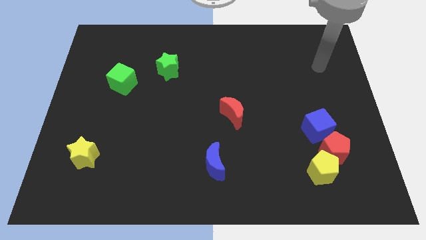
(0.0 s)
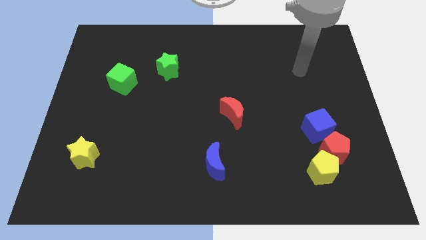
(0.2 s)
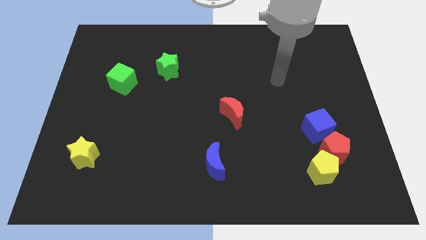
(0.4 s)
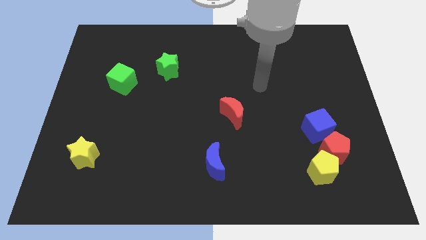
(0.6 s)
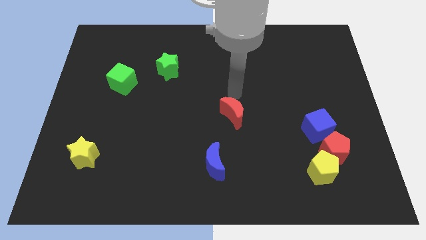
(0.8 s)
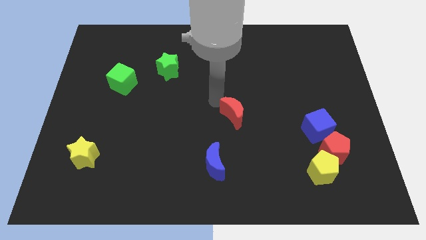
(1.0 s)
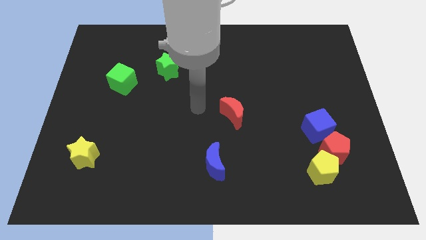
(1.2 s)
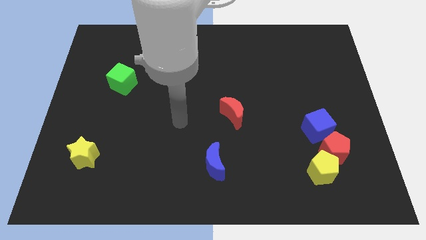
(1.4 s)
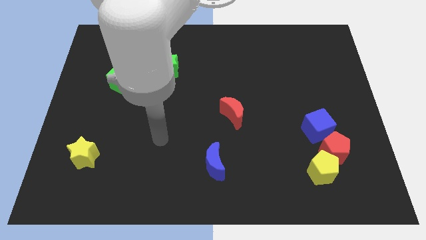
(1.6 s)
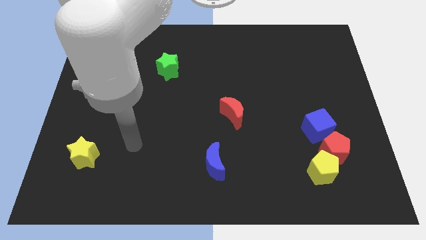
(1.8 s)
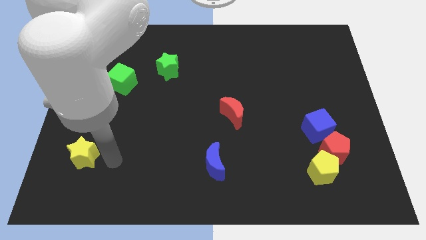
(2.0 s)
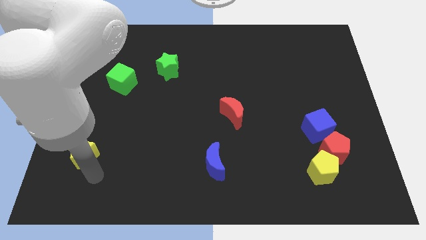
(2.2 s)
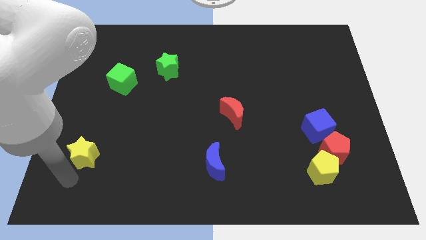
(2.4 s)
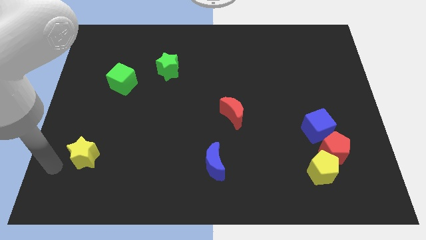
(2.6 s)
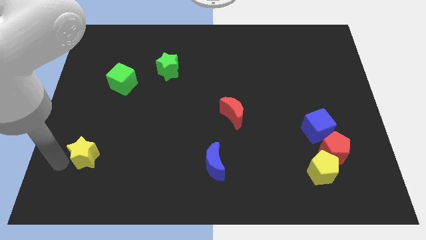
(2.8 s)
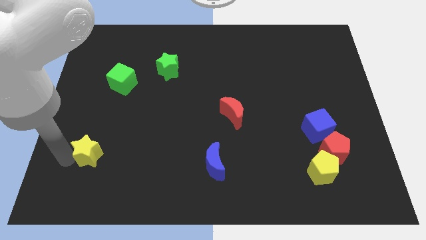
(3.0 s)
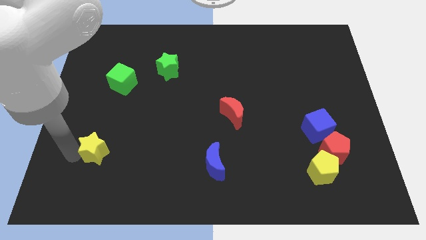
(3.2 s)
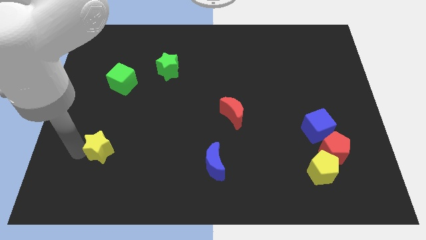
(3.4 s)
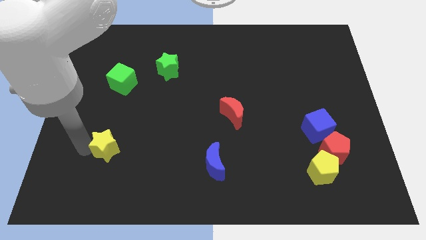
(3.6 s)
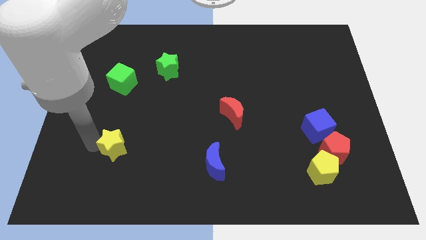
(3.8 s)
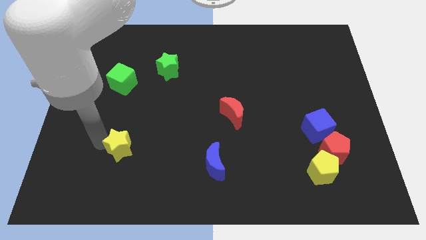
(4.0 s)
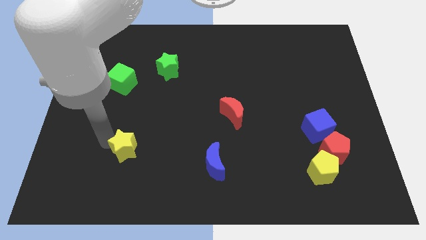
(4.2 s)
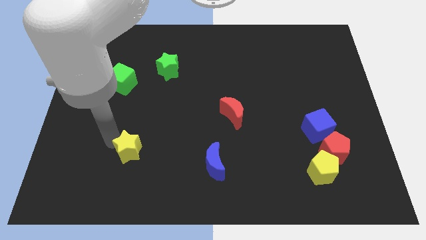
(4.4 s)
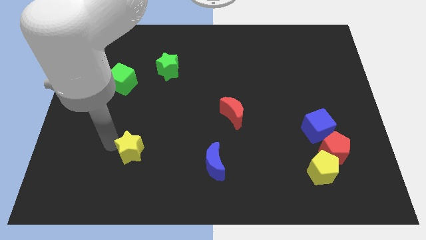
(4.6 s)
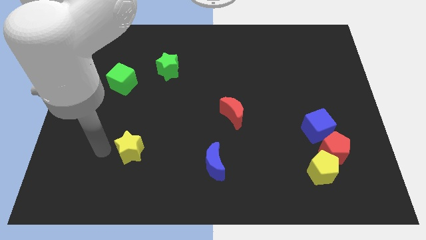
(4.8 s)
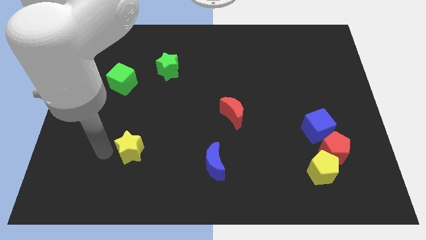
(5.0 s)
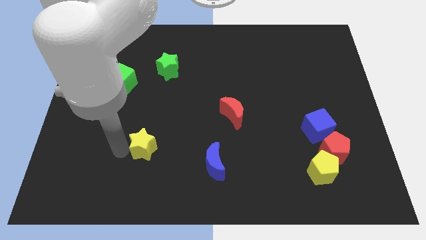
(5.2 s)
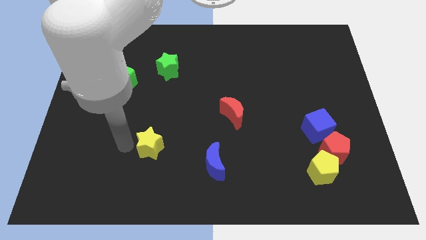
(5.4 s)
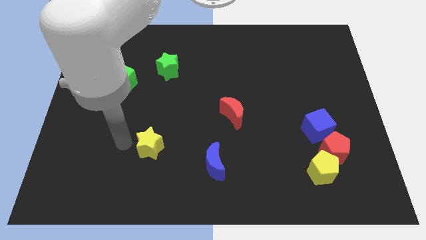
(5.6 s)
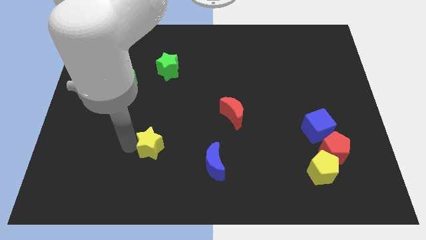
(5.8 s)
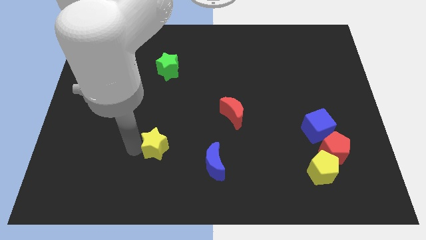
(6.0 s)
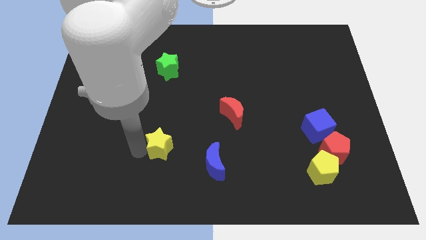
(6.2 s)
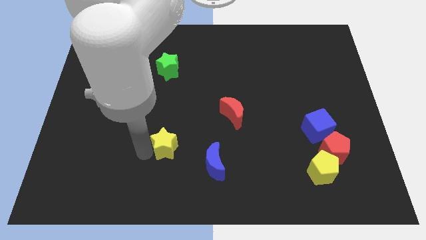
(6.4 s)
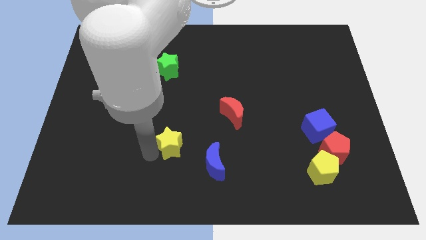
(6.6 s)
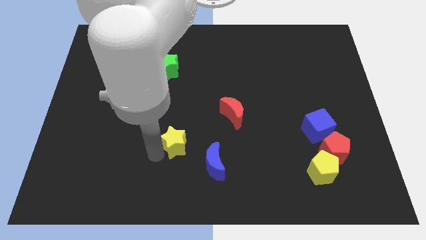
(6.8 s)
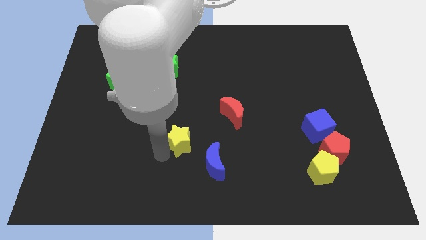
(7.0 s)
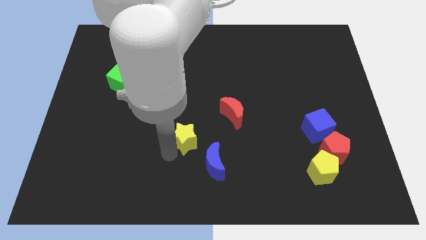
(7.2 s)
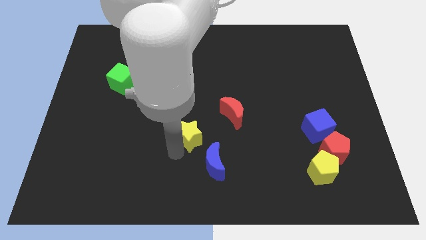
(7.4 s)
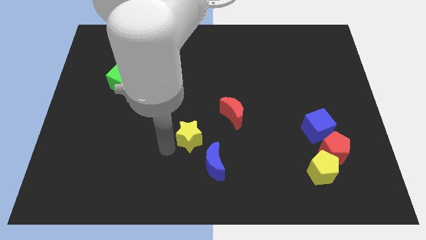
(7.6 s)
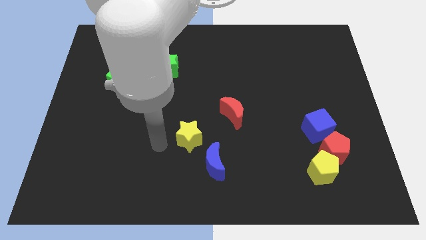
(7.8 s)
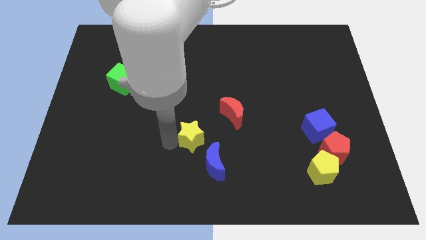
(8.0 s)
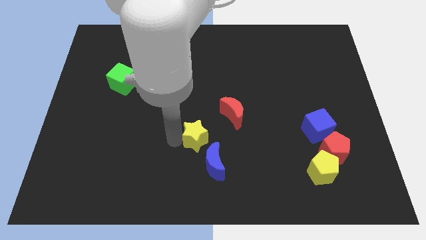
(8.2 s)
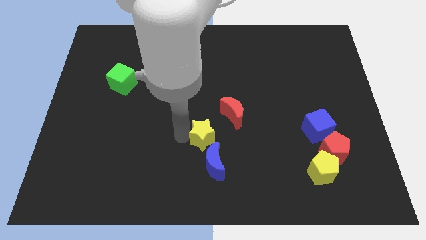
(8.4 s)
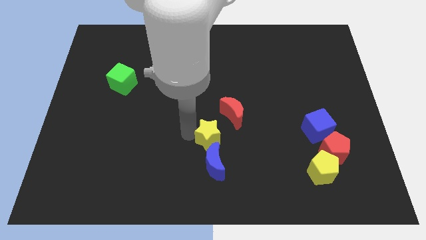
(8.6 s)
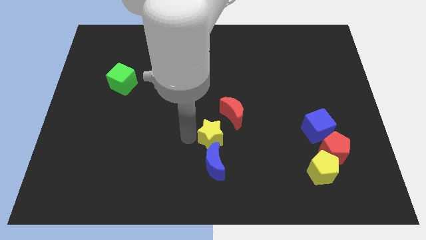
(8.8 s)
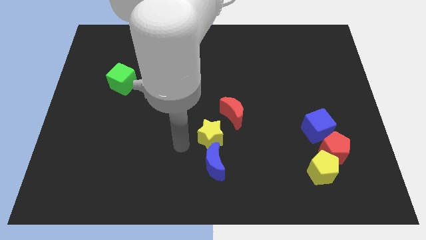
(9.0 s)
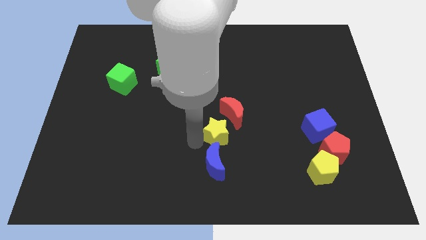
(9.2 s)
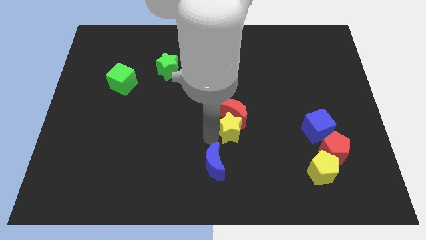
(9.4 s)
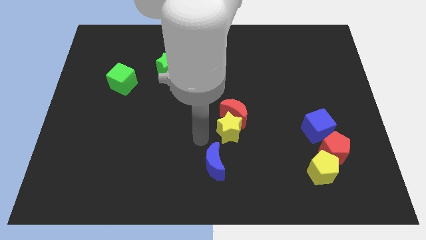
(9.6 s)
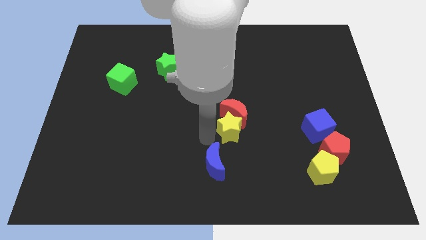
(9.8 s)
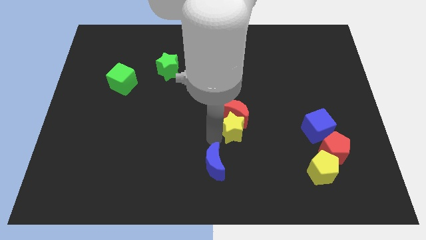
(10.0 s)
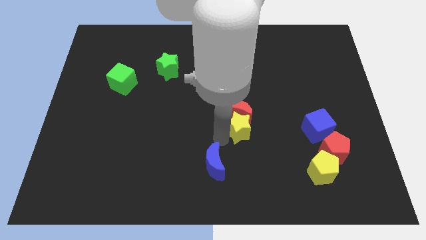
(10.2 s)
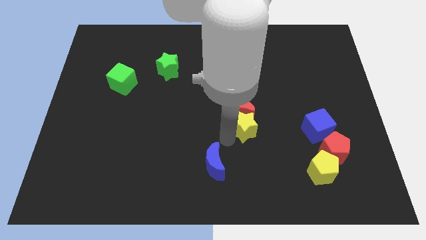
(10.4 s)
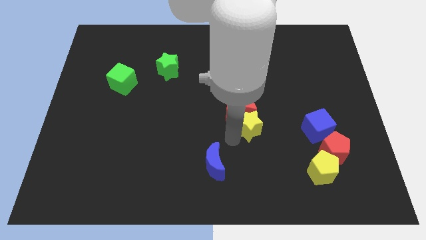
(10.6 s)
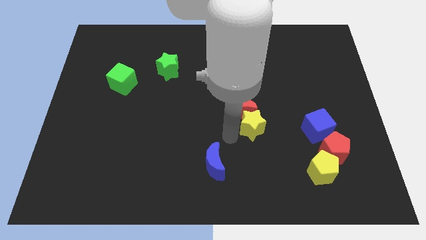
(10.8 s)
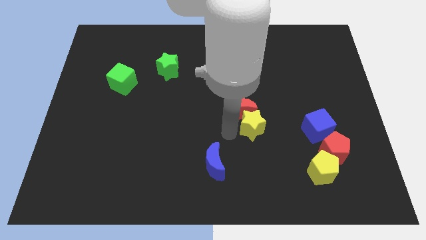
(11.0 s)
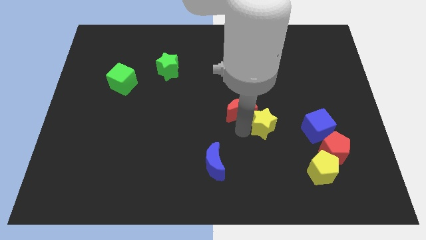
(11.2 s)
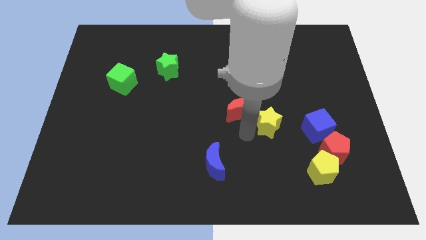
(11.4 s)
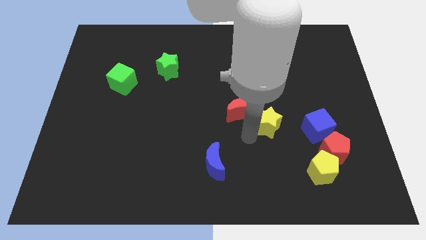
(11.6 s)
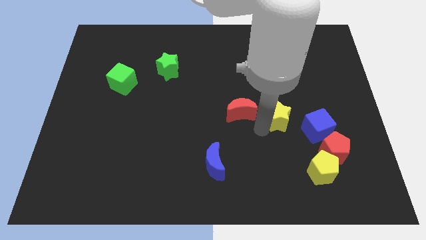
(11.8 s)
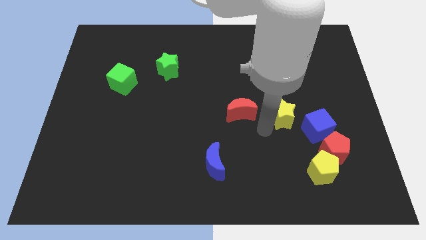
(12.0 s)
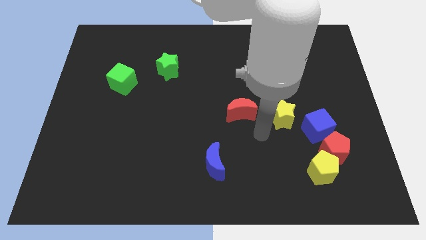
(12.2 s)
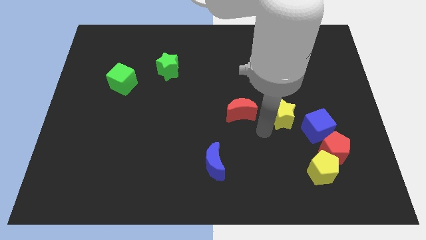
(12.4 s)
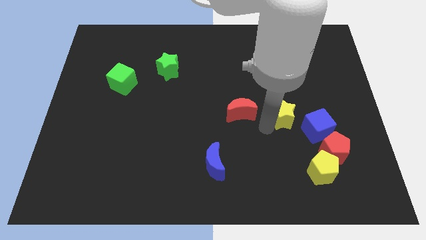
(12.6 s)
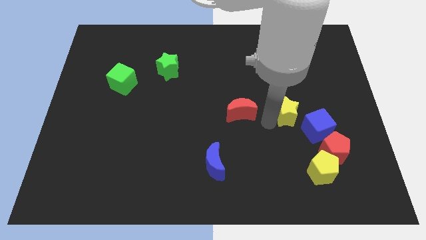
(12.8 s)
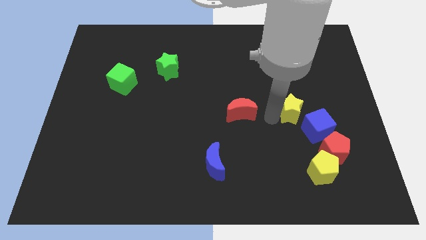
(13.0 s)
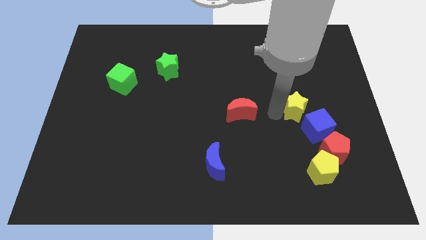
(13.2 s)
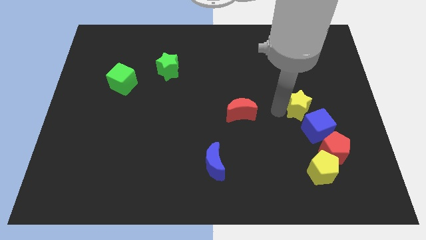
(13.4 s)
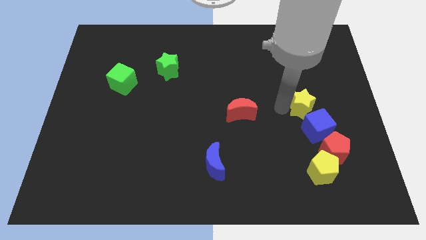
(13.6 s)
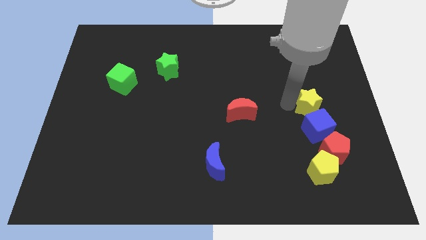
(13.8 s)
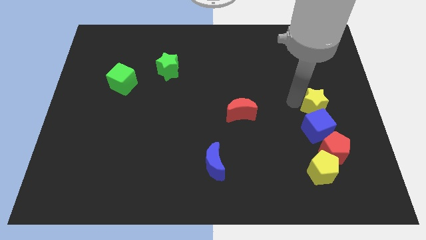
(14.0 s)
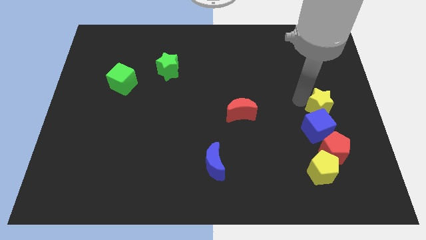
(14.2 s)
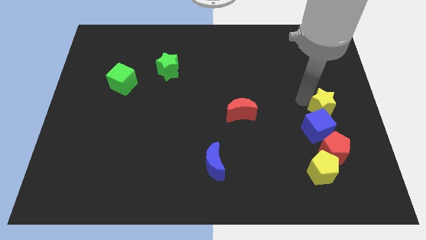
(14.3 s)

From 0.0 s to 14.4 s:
push the yellow star to the center right
